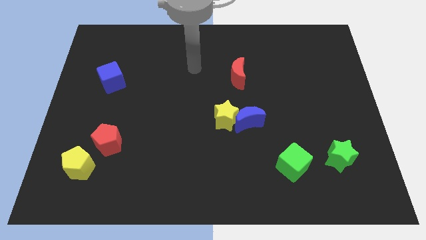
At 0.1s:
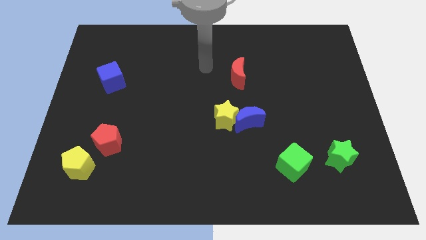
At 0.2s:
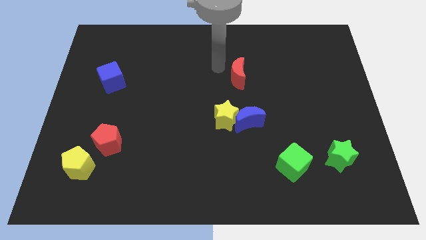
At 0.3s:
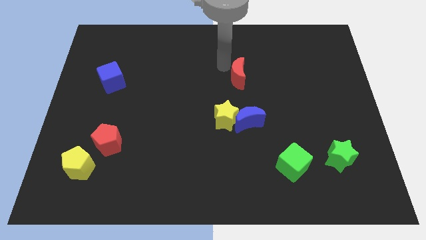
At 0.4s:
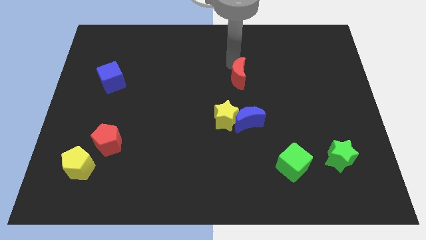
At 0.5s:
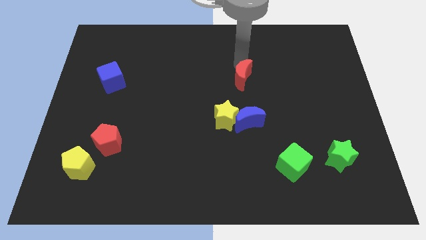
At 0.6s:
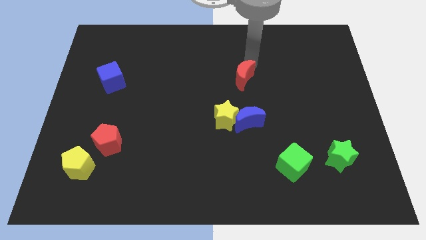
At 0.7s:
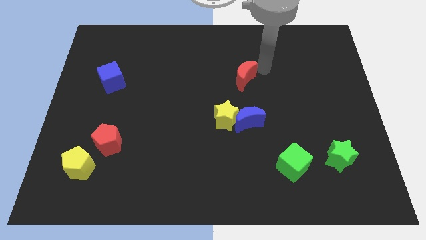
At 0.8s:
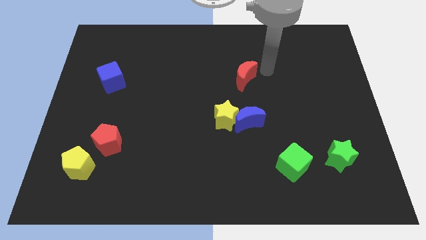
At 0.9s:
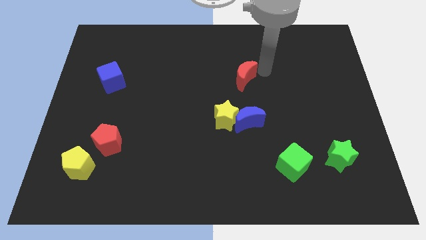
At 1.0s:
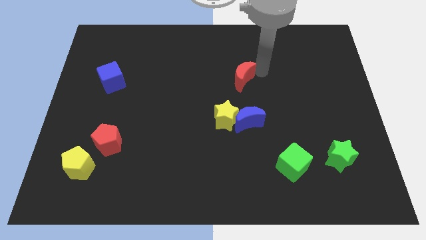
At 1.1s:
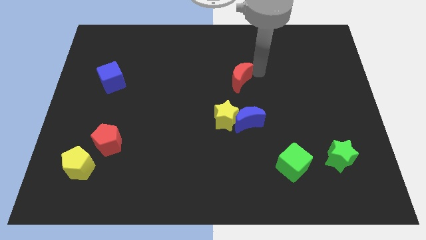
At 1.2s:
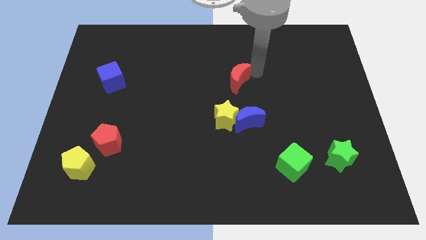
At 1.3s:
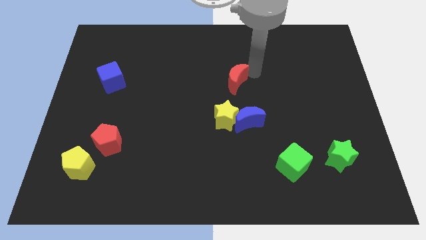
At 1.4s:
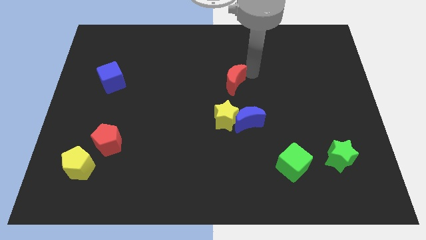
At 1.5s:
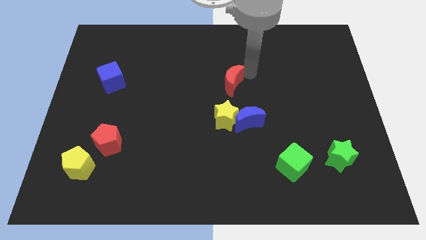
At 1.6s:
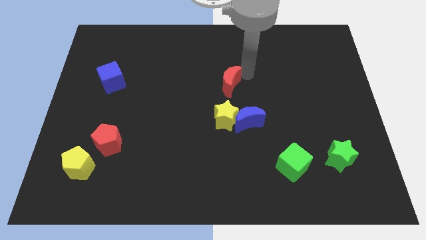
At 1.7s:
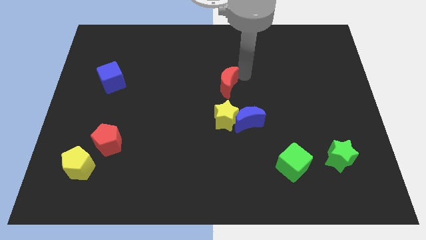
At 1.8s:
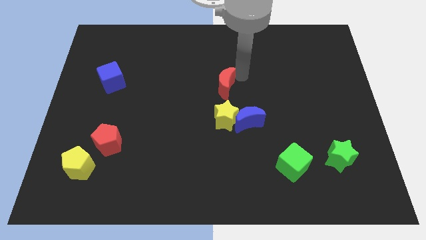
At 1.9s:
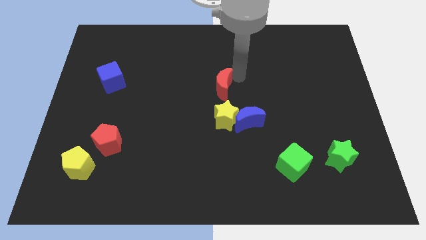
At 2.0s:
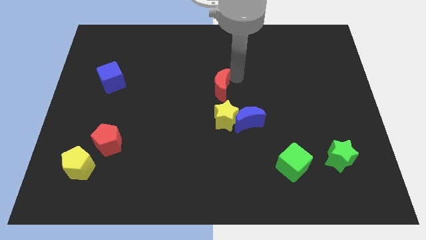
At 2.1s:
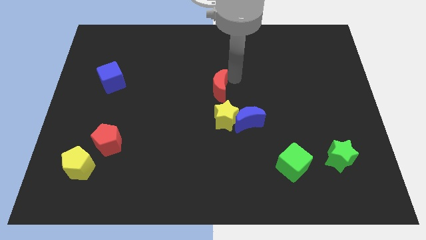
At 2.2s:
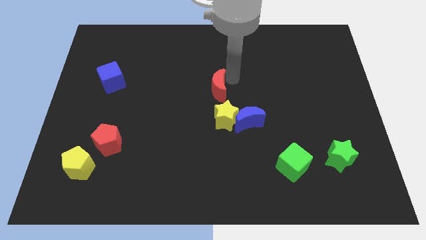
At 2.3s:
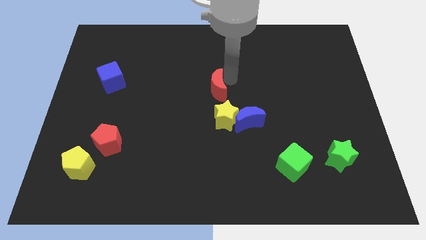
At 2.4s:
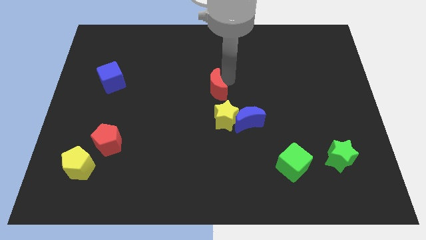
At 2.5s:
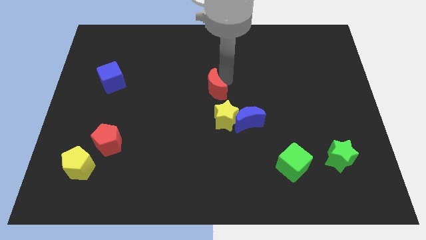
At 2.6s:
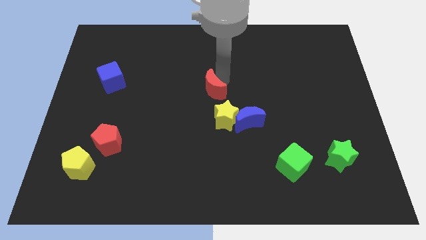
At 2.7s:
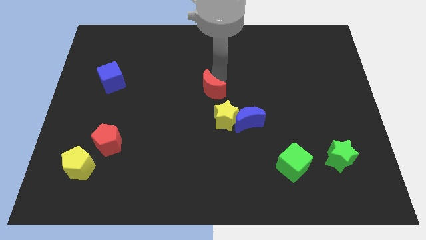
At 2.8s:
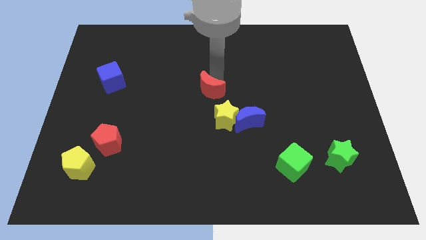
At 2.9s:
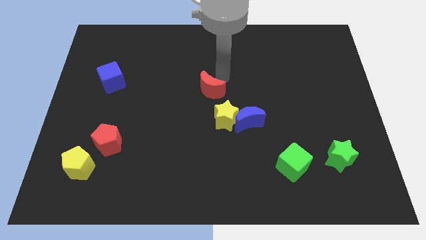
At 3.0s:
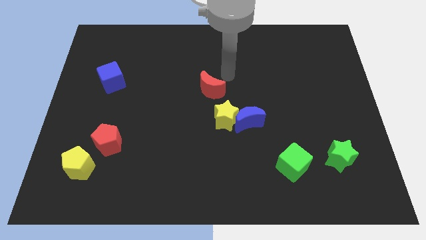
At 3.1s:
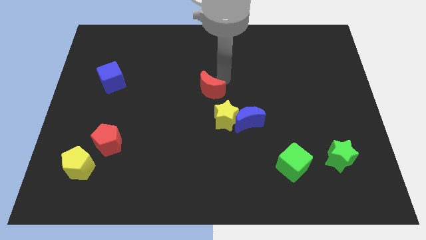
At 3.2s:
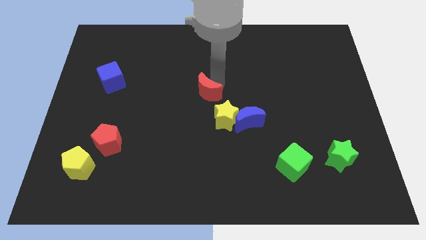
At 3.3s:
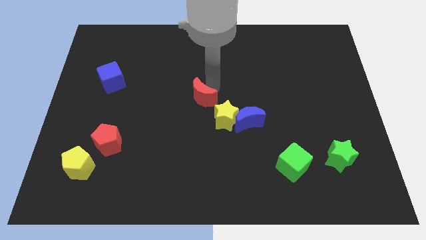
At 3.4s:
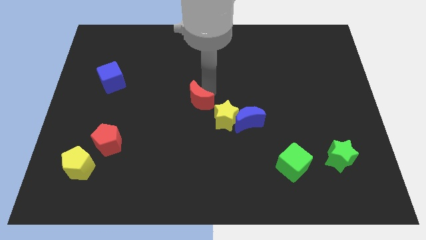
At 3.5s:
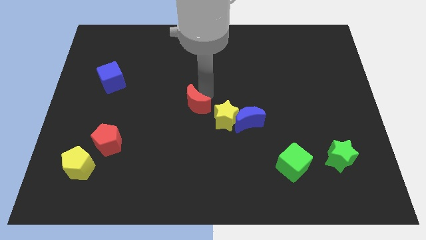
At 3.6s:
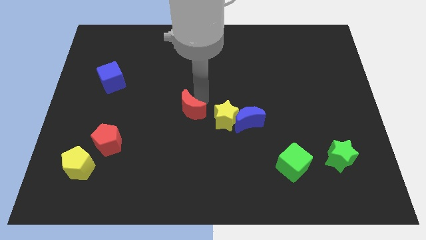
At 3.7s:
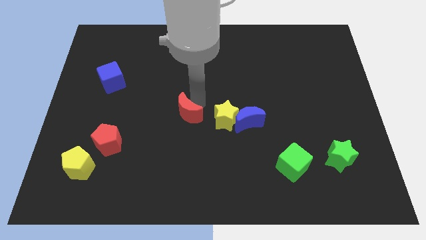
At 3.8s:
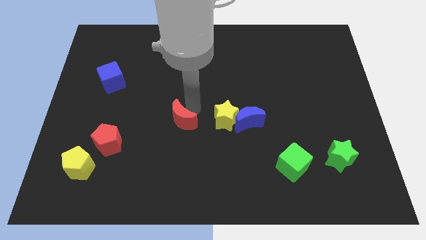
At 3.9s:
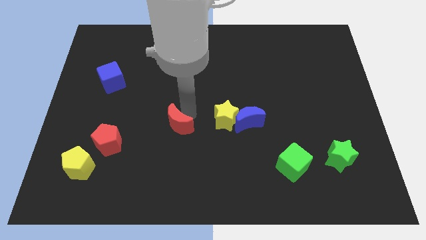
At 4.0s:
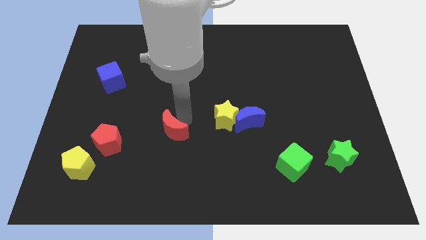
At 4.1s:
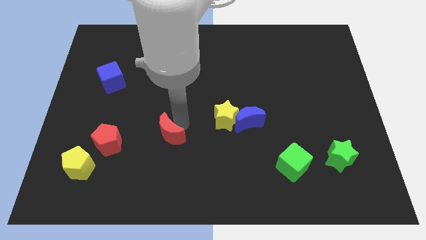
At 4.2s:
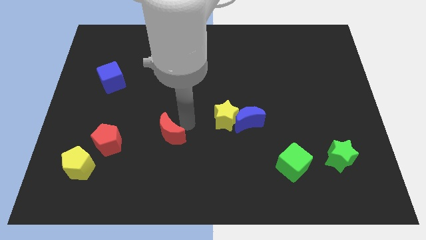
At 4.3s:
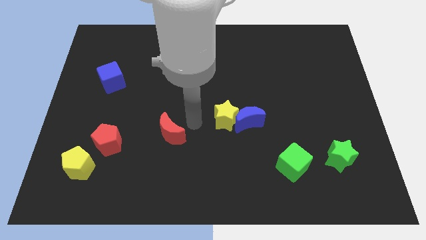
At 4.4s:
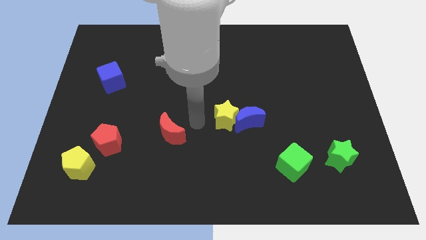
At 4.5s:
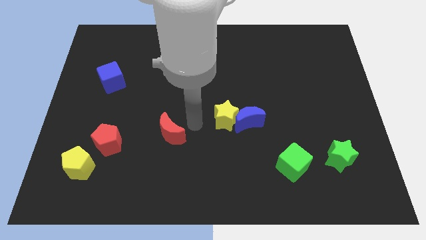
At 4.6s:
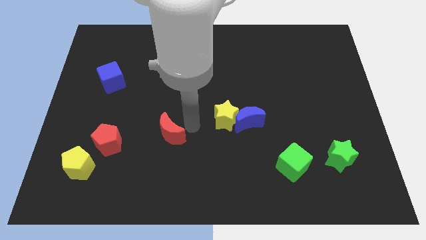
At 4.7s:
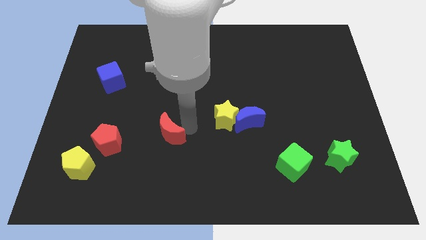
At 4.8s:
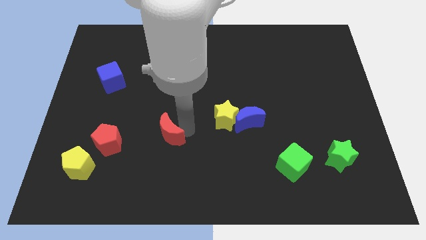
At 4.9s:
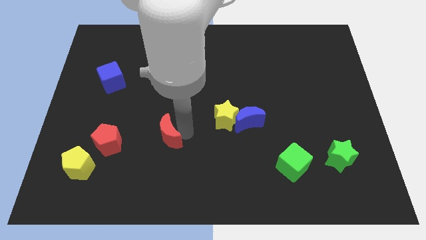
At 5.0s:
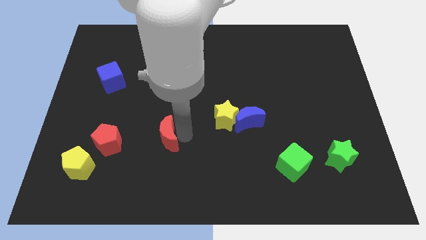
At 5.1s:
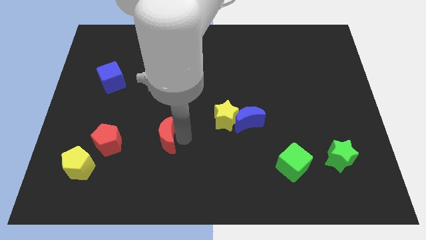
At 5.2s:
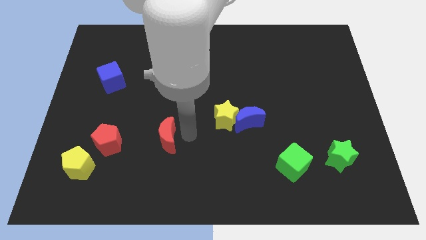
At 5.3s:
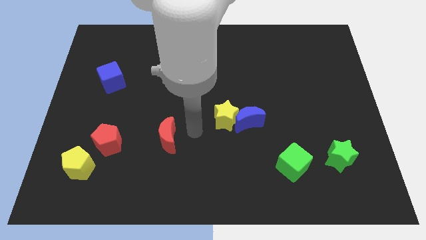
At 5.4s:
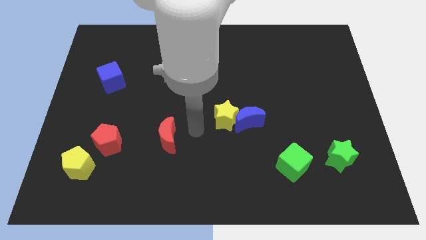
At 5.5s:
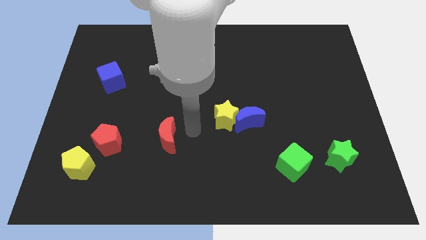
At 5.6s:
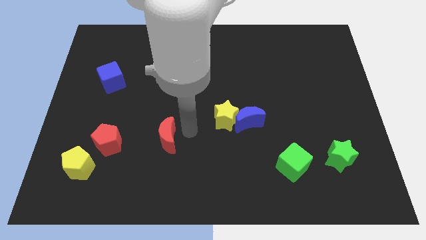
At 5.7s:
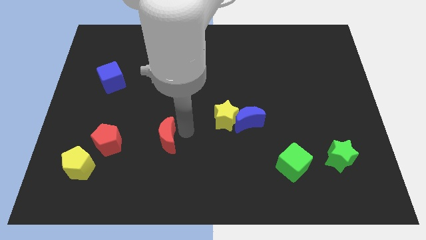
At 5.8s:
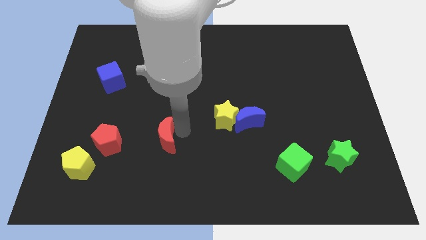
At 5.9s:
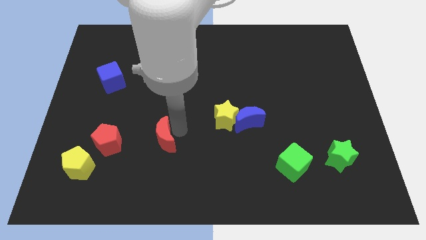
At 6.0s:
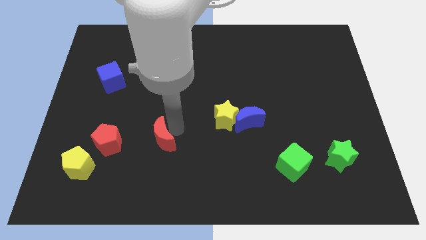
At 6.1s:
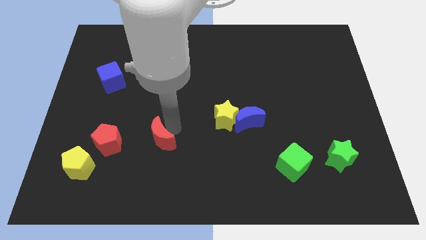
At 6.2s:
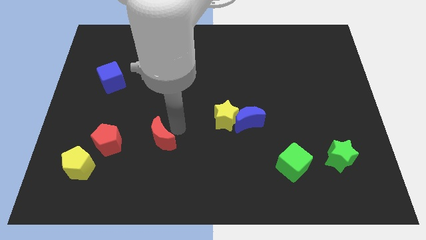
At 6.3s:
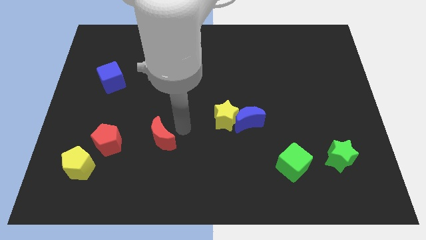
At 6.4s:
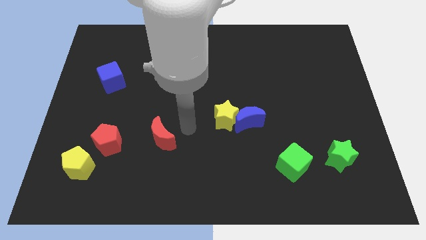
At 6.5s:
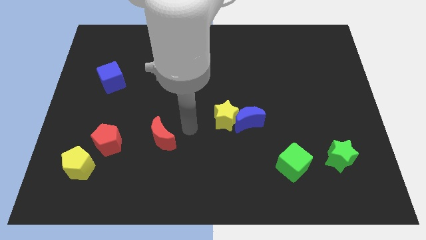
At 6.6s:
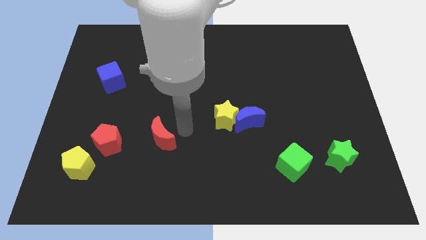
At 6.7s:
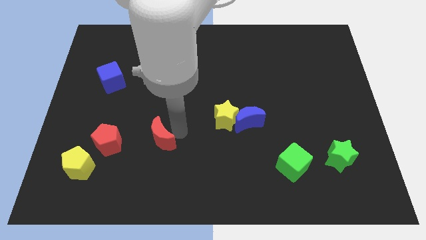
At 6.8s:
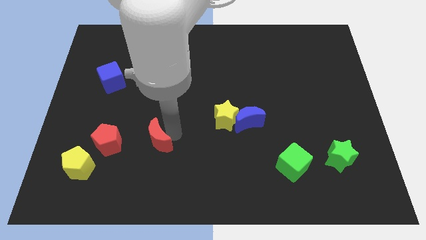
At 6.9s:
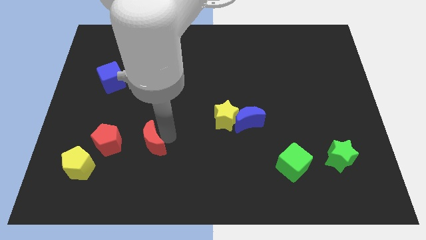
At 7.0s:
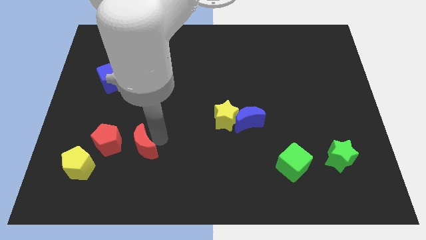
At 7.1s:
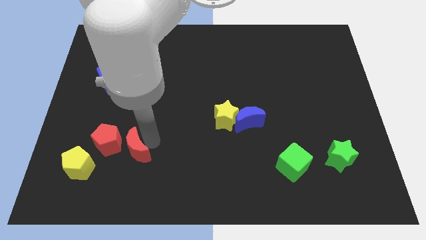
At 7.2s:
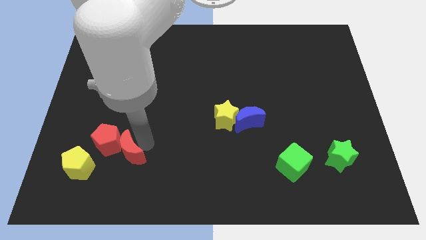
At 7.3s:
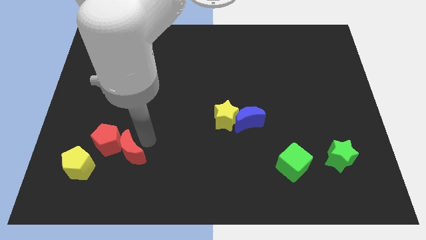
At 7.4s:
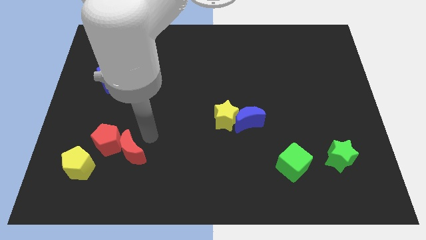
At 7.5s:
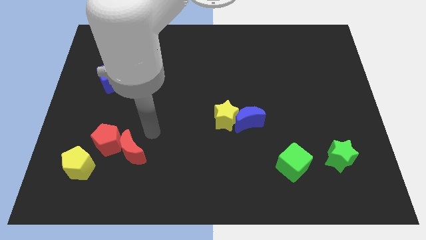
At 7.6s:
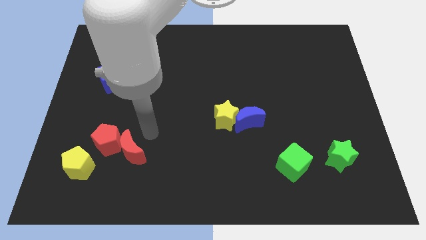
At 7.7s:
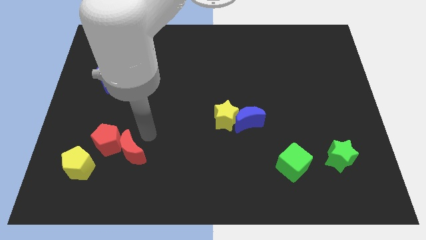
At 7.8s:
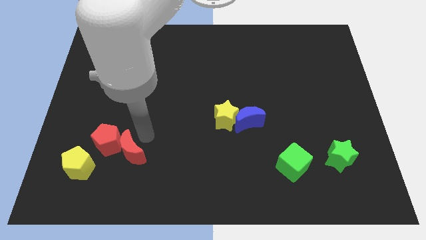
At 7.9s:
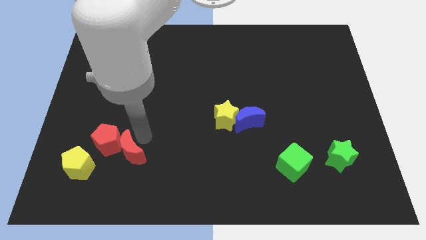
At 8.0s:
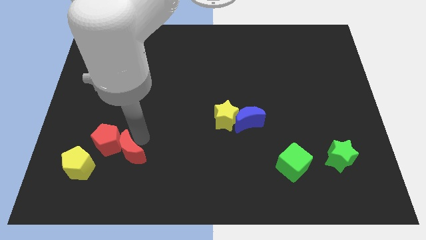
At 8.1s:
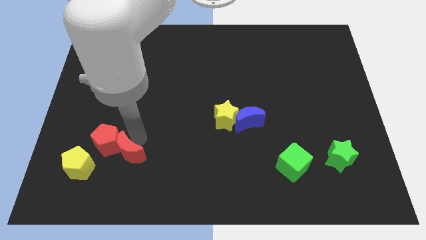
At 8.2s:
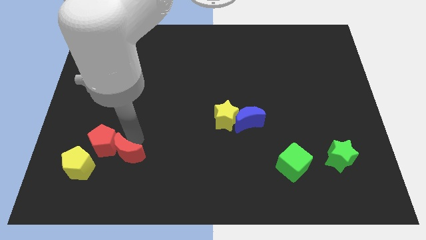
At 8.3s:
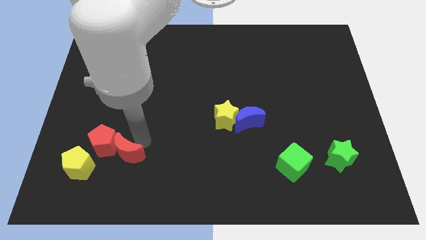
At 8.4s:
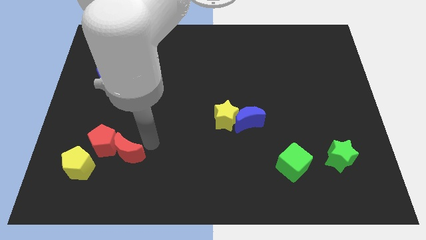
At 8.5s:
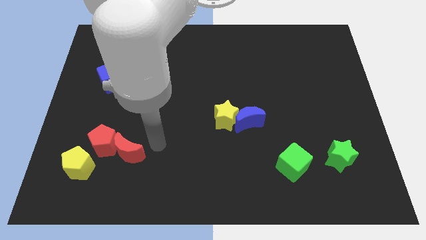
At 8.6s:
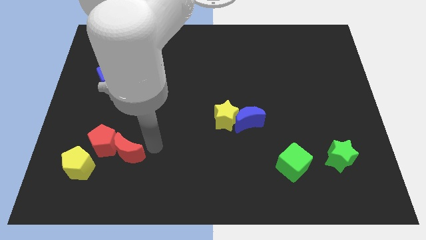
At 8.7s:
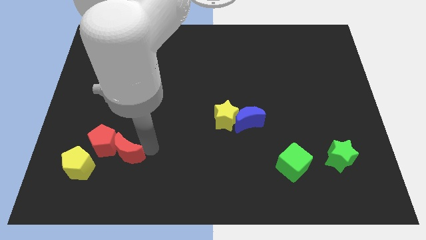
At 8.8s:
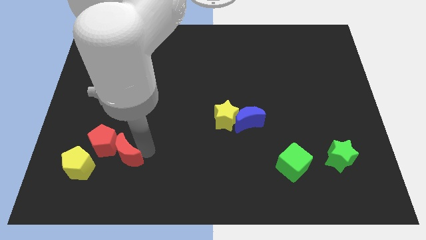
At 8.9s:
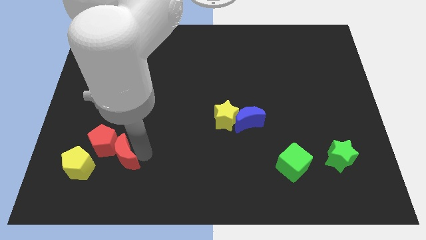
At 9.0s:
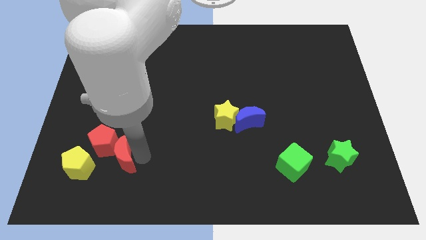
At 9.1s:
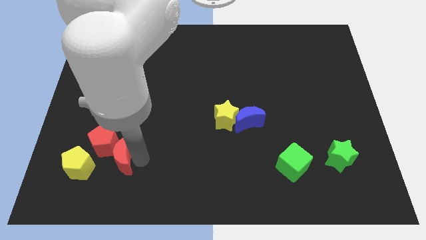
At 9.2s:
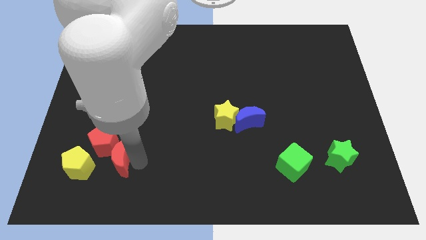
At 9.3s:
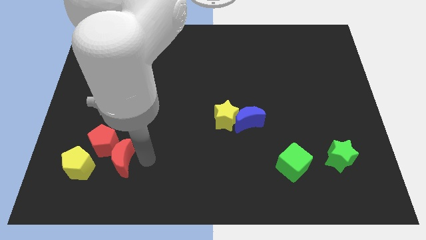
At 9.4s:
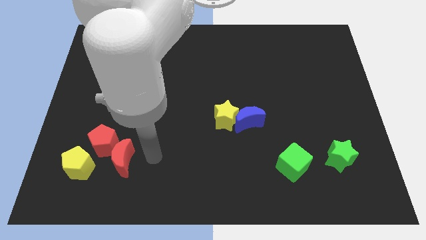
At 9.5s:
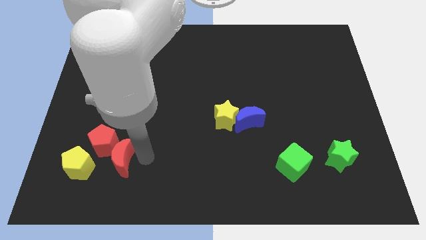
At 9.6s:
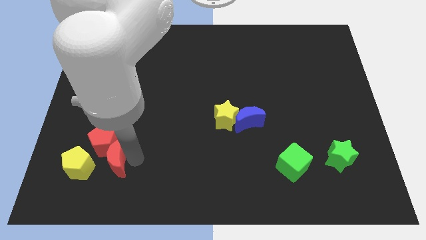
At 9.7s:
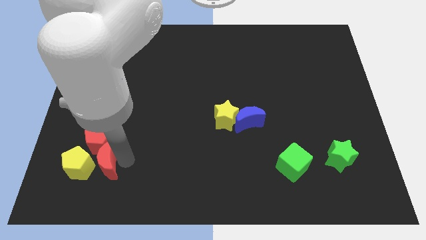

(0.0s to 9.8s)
move the red moon to the yellow pentagon
